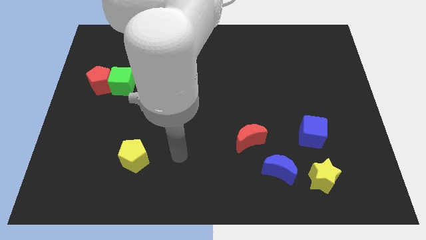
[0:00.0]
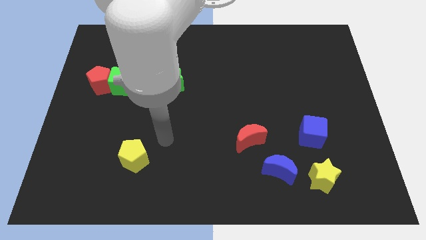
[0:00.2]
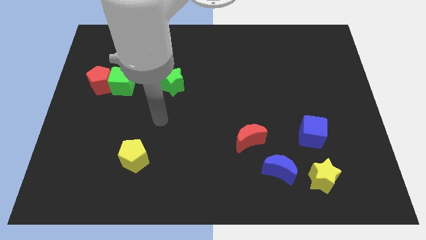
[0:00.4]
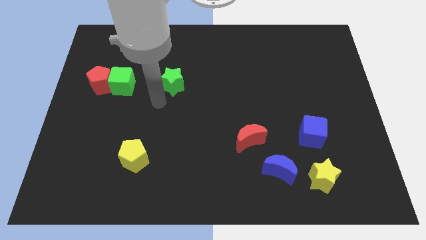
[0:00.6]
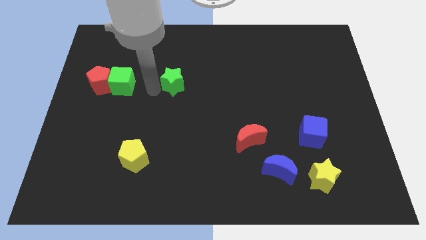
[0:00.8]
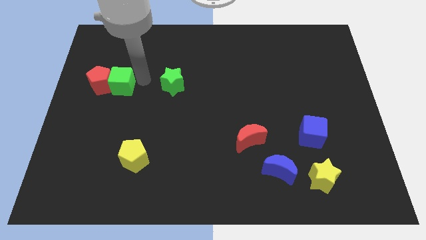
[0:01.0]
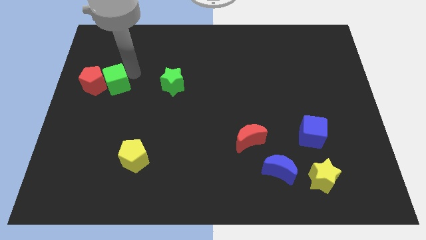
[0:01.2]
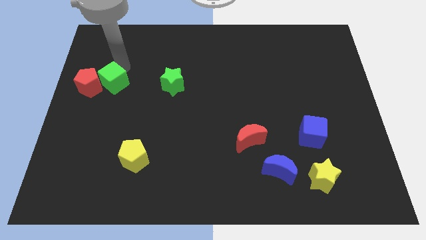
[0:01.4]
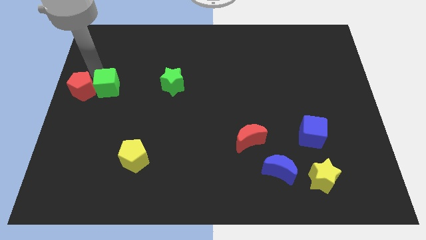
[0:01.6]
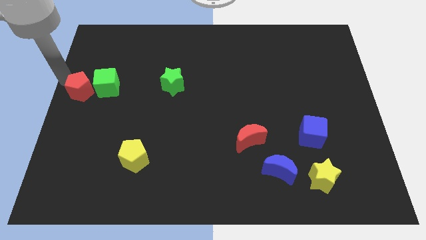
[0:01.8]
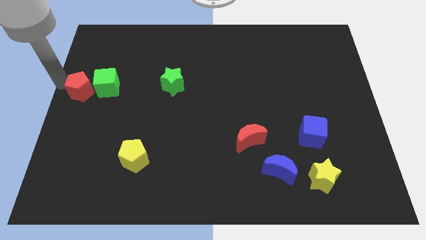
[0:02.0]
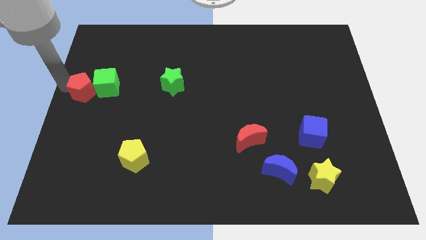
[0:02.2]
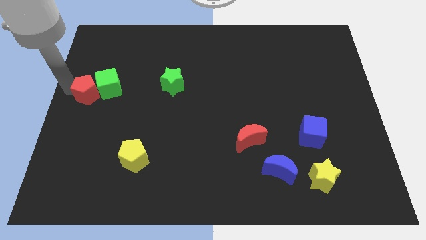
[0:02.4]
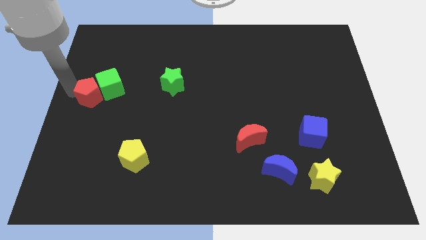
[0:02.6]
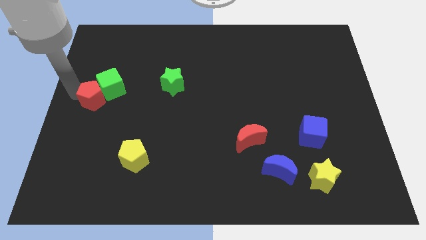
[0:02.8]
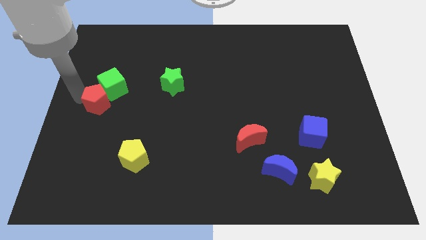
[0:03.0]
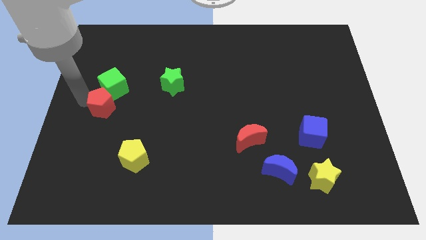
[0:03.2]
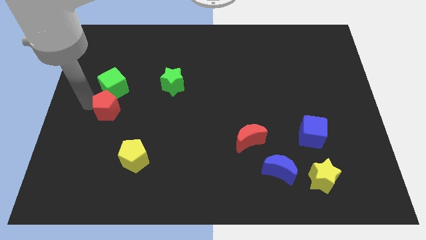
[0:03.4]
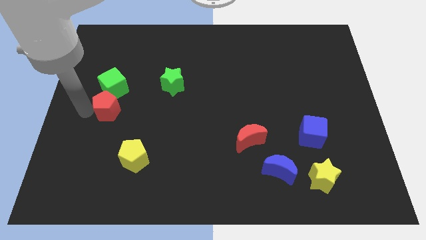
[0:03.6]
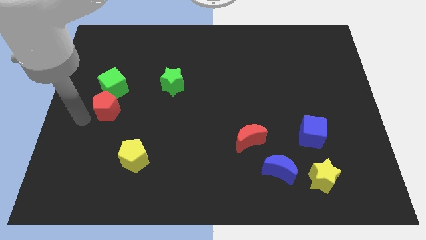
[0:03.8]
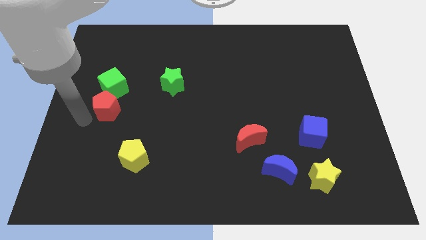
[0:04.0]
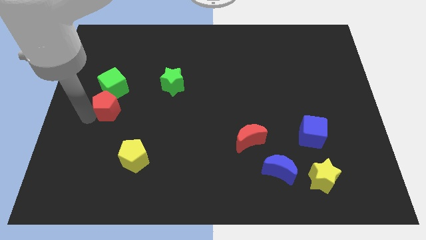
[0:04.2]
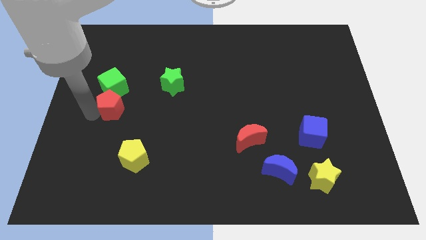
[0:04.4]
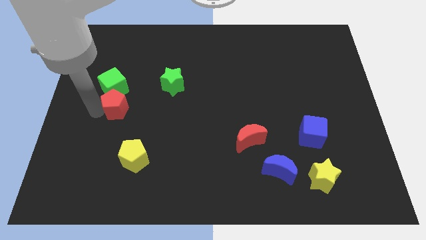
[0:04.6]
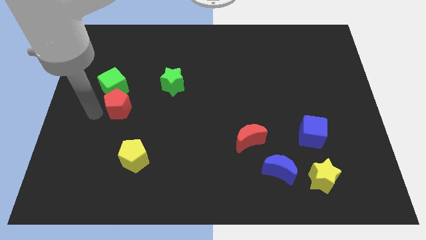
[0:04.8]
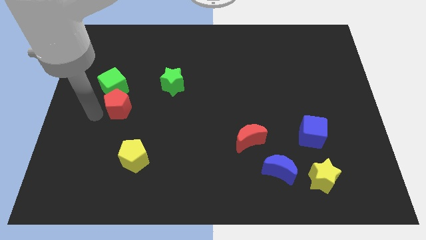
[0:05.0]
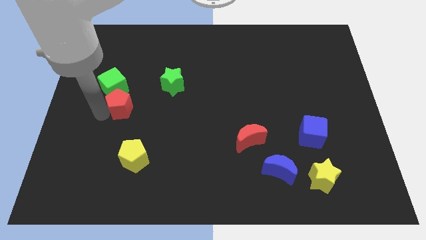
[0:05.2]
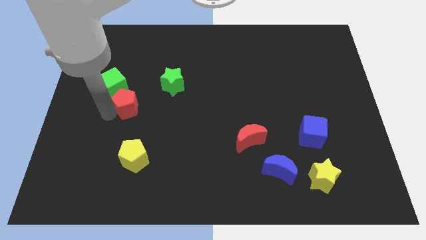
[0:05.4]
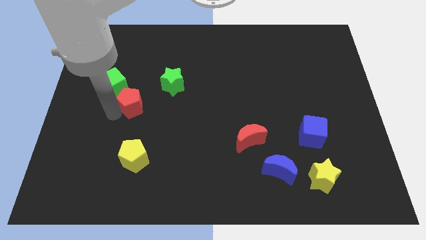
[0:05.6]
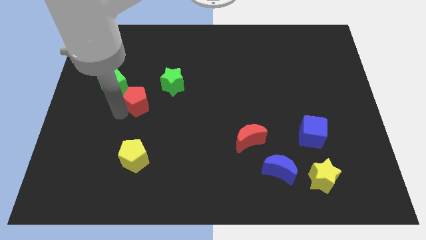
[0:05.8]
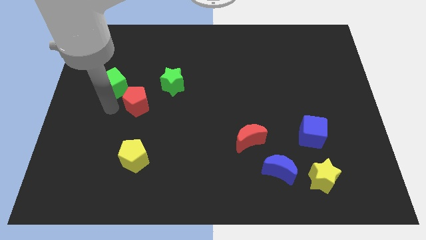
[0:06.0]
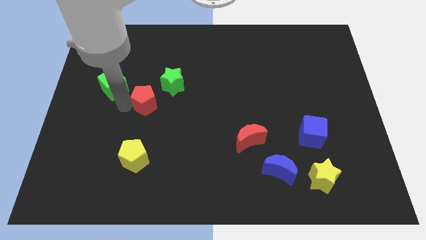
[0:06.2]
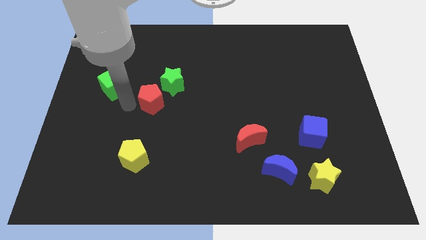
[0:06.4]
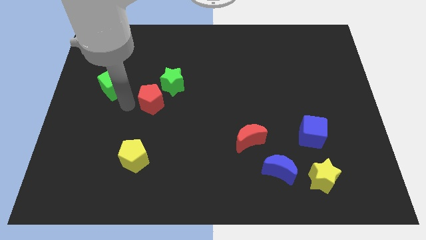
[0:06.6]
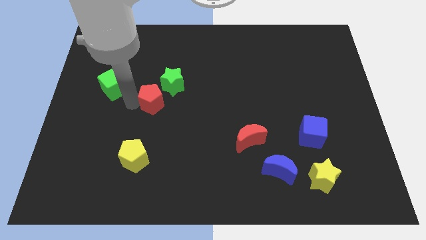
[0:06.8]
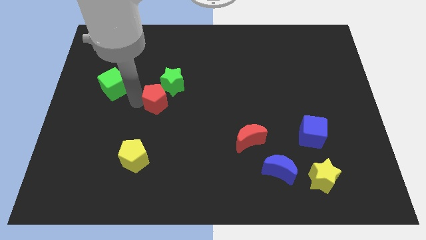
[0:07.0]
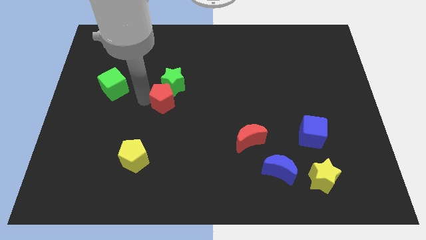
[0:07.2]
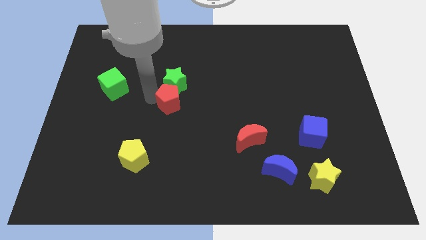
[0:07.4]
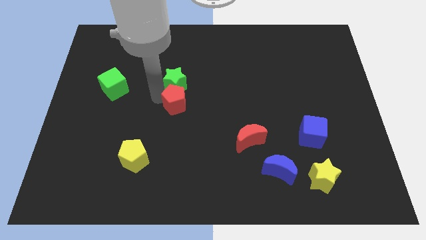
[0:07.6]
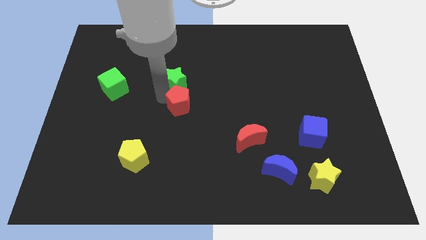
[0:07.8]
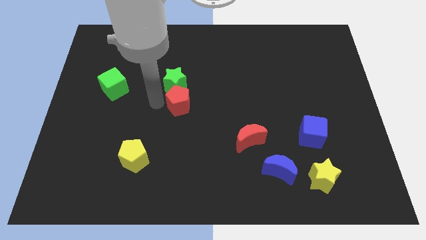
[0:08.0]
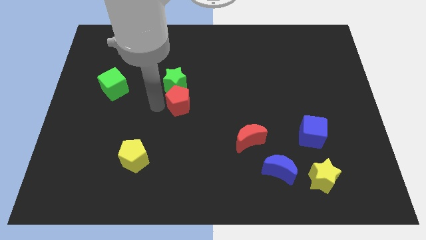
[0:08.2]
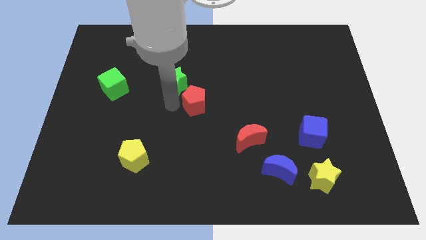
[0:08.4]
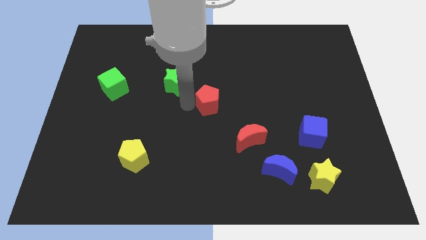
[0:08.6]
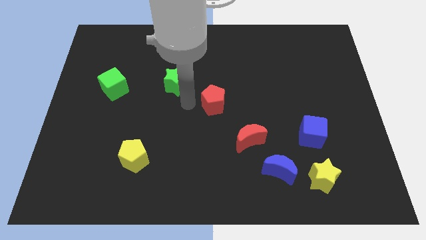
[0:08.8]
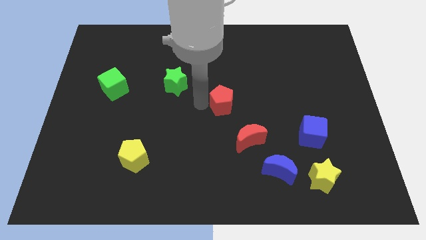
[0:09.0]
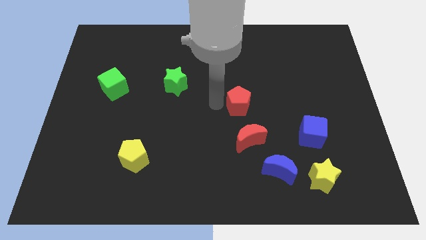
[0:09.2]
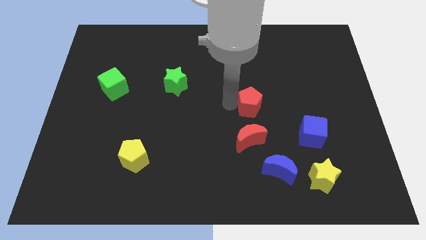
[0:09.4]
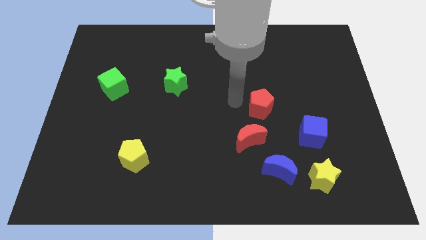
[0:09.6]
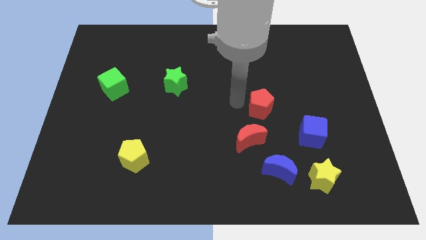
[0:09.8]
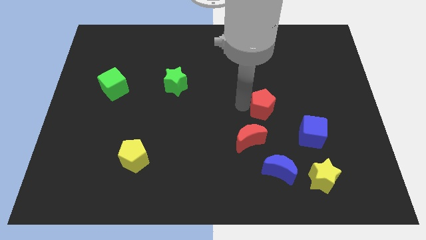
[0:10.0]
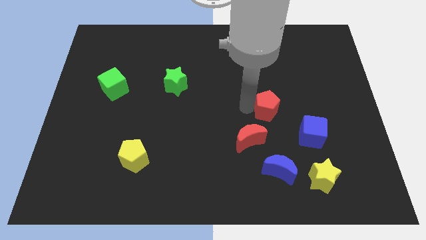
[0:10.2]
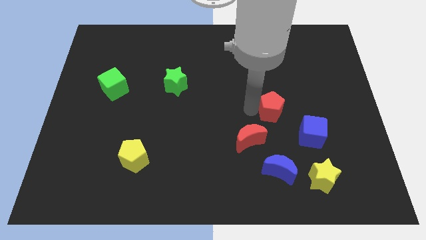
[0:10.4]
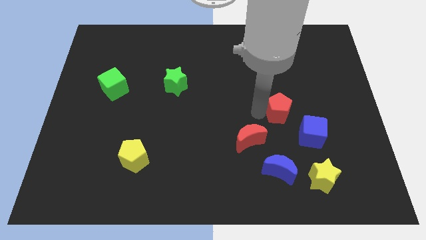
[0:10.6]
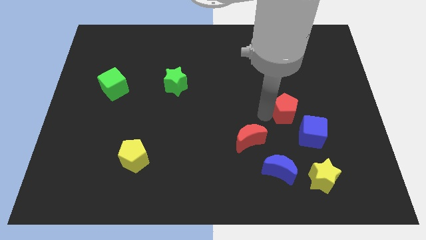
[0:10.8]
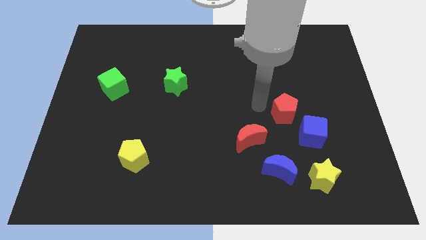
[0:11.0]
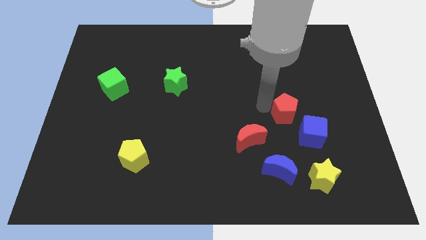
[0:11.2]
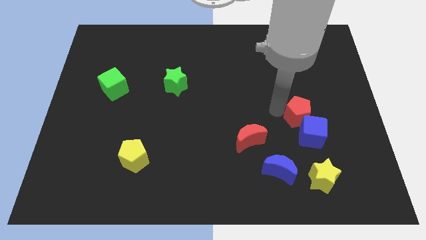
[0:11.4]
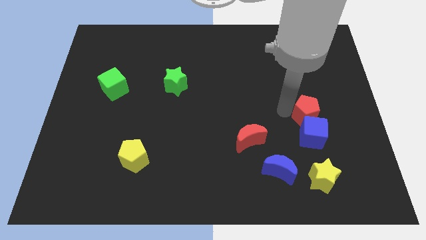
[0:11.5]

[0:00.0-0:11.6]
push the red pentagon to the top of the yellow star

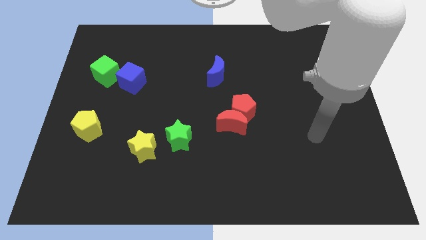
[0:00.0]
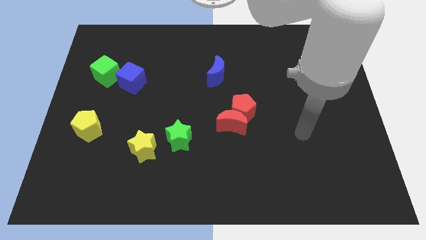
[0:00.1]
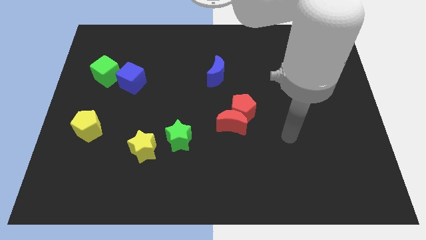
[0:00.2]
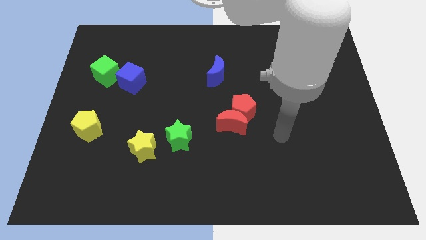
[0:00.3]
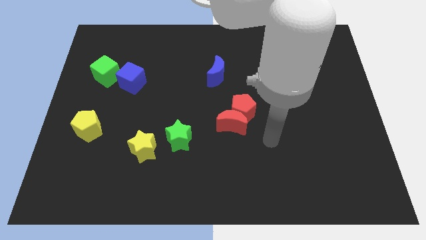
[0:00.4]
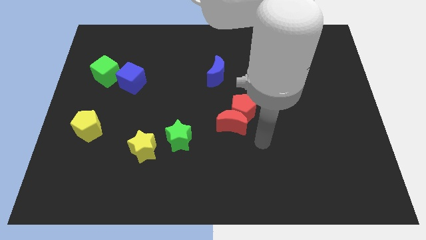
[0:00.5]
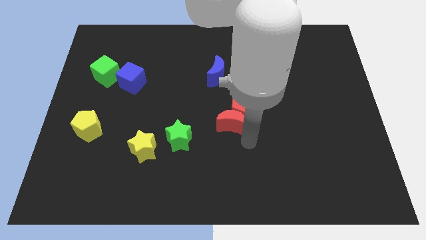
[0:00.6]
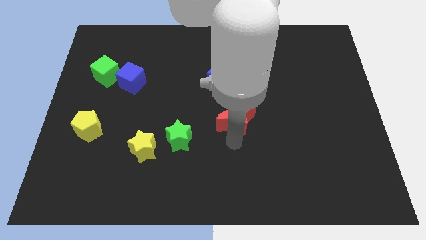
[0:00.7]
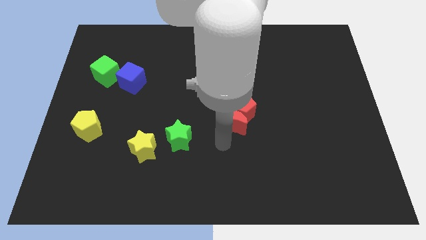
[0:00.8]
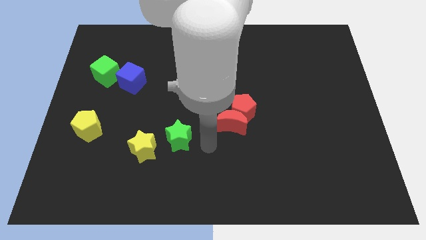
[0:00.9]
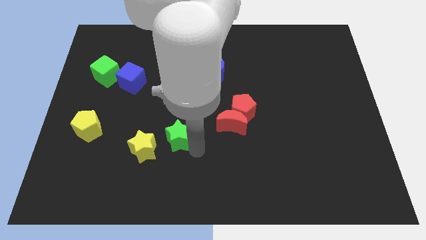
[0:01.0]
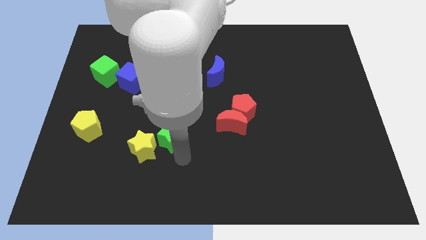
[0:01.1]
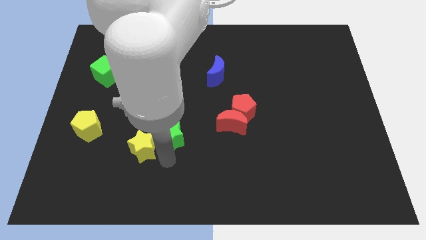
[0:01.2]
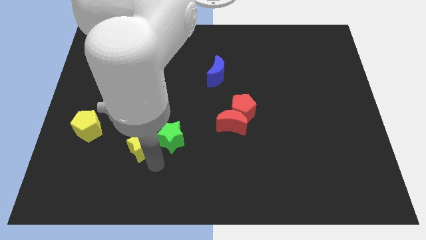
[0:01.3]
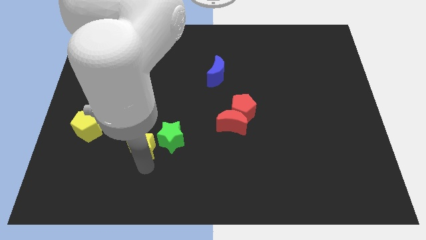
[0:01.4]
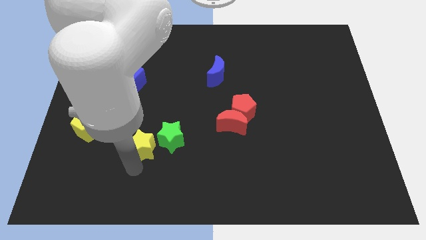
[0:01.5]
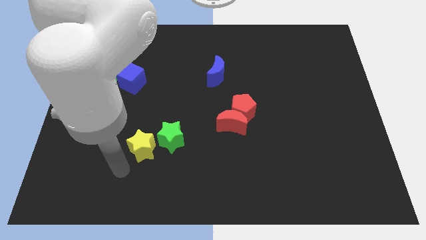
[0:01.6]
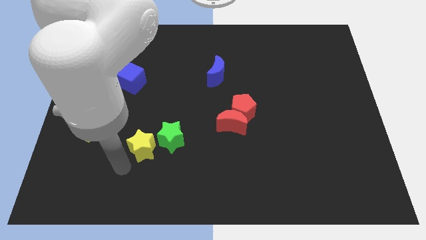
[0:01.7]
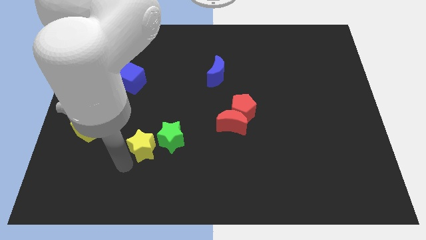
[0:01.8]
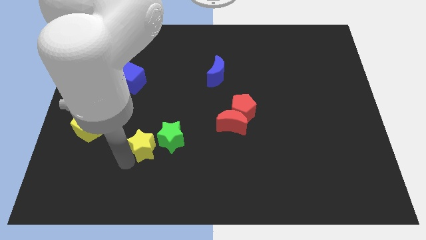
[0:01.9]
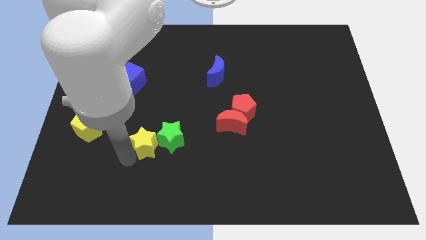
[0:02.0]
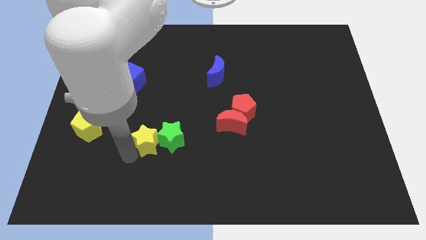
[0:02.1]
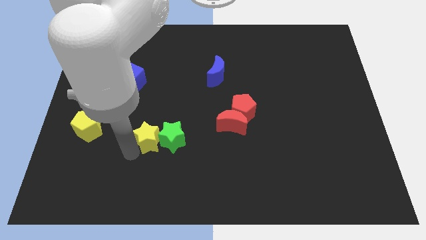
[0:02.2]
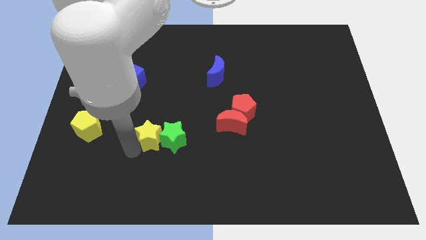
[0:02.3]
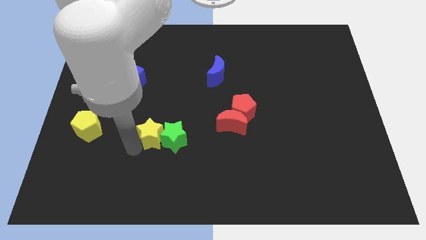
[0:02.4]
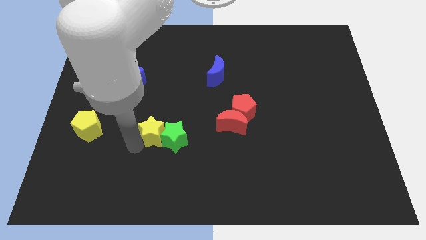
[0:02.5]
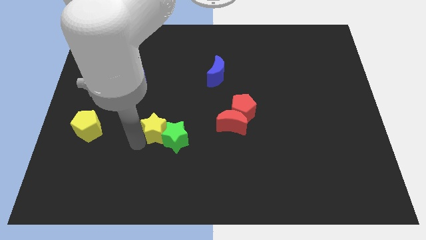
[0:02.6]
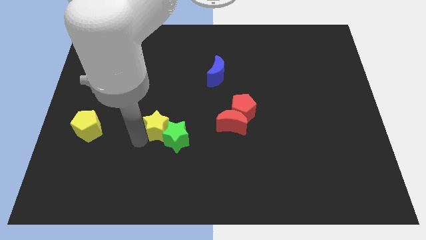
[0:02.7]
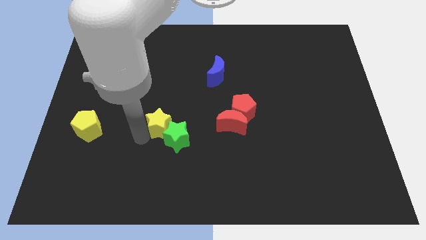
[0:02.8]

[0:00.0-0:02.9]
push the yellow star to the left of the red moon
